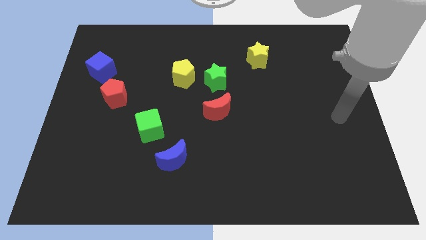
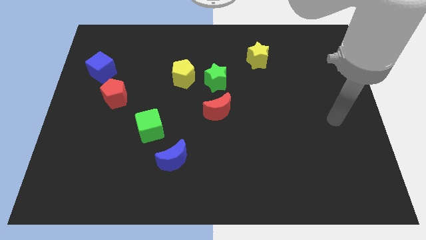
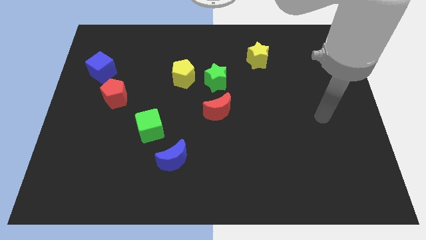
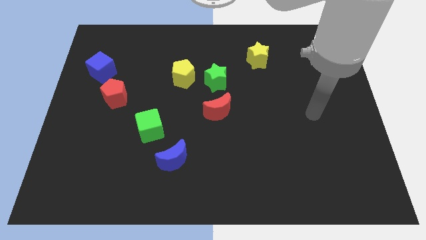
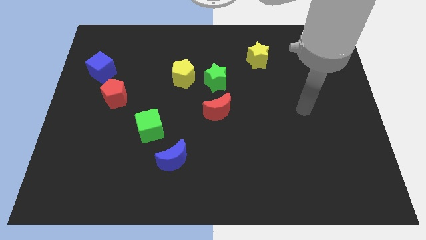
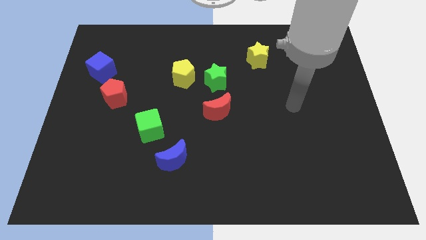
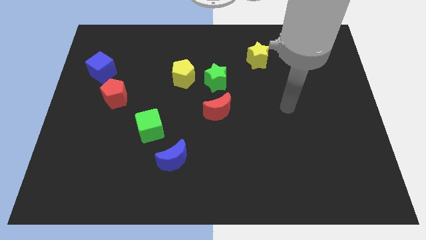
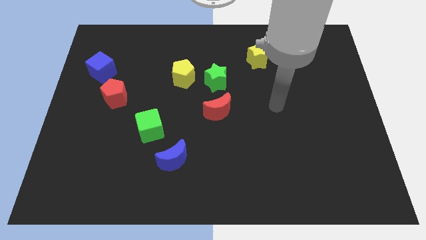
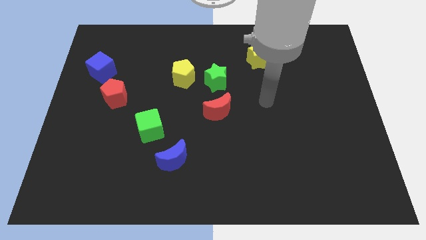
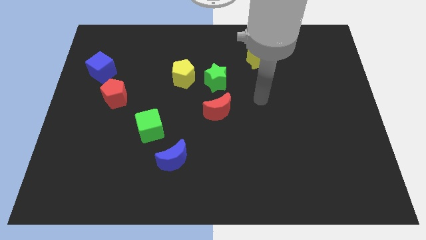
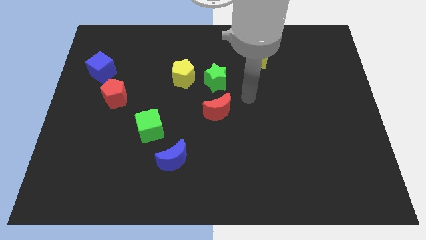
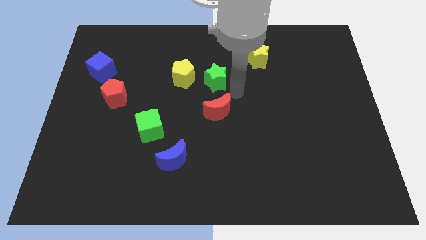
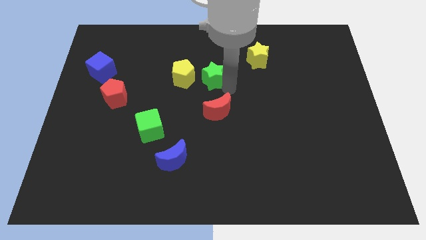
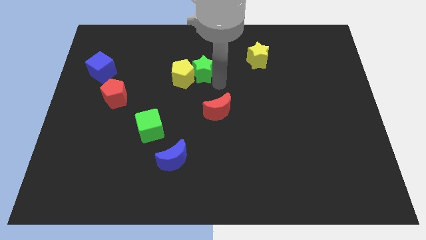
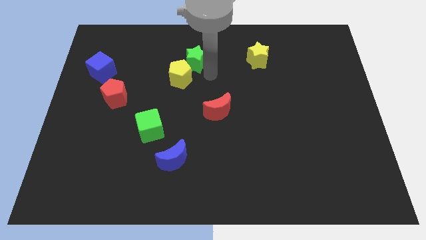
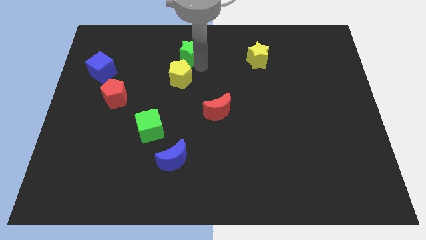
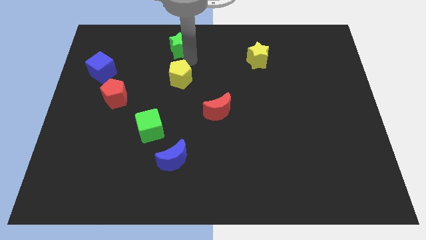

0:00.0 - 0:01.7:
pull the yellow pentagon apart from the green star

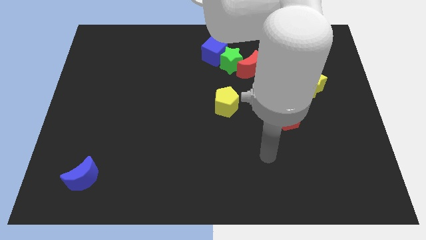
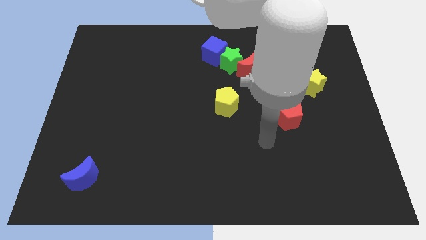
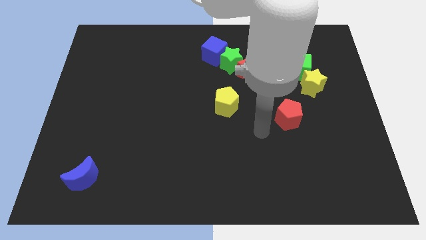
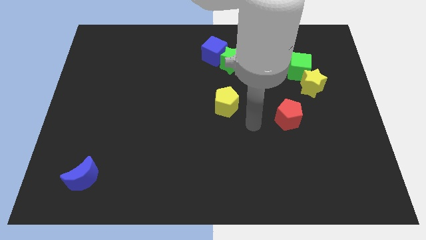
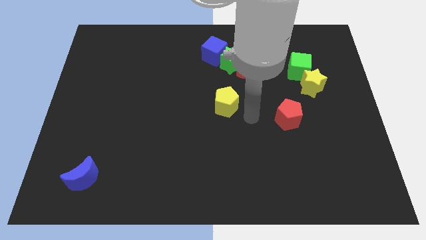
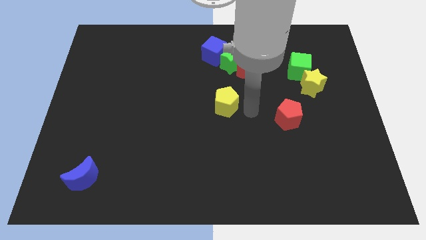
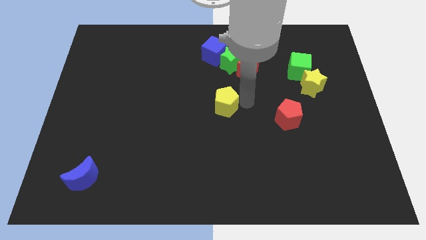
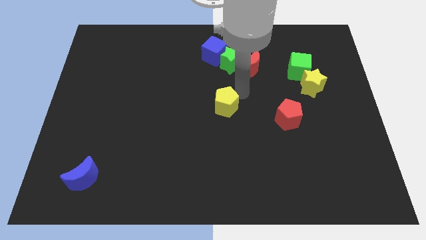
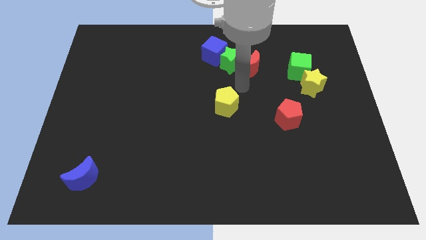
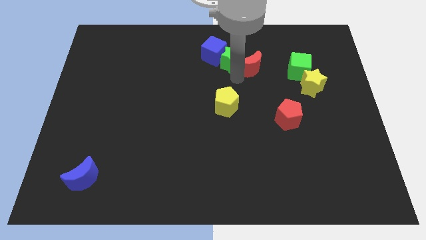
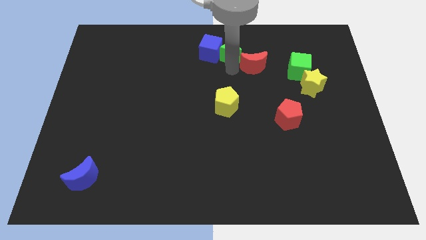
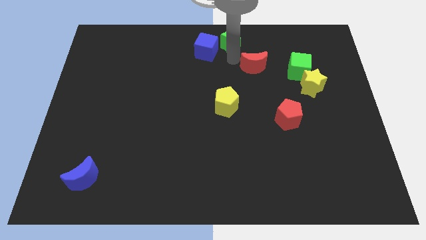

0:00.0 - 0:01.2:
separate the red moon from the green star

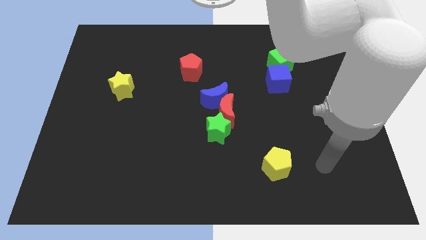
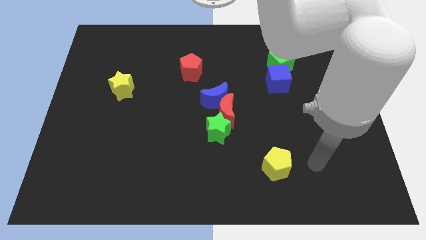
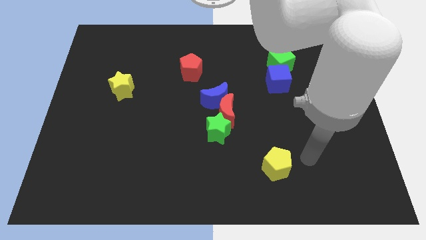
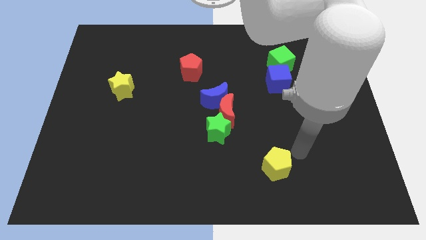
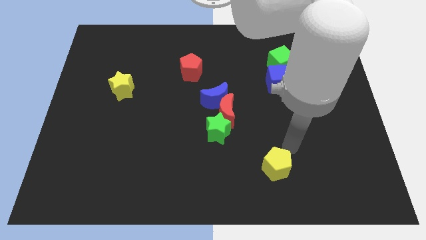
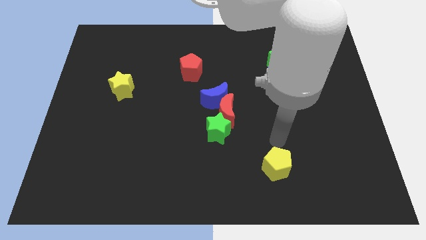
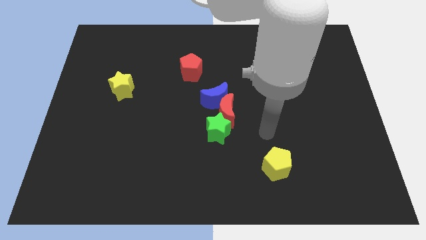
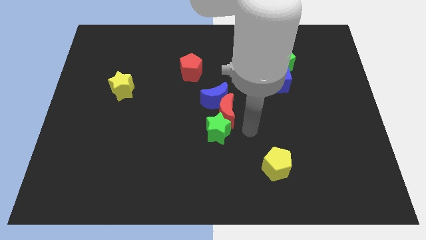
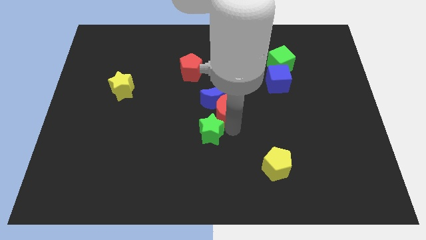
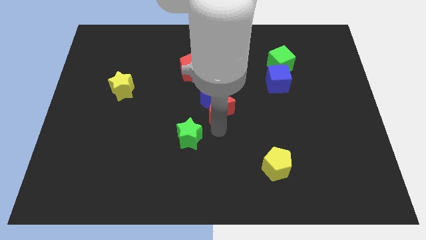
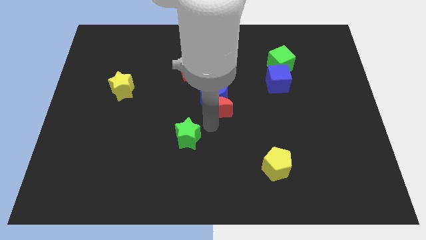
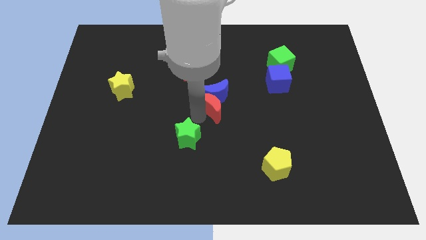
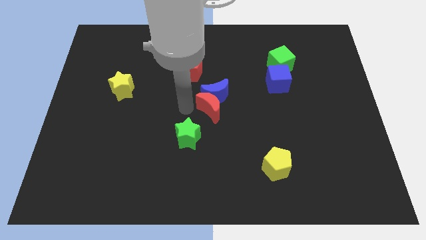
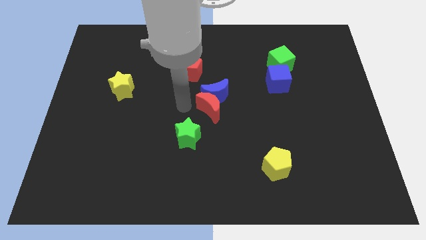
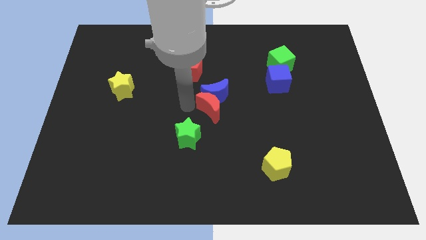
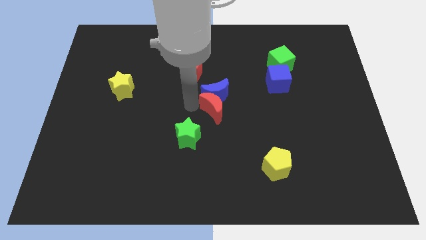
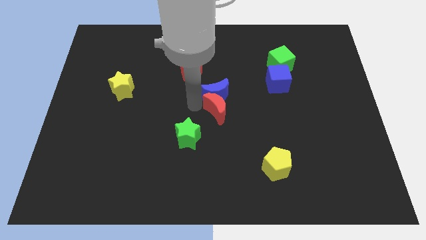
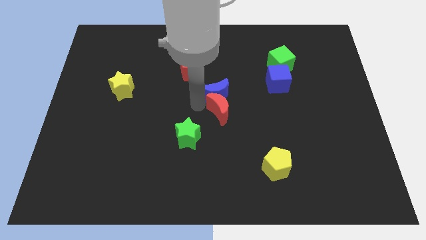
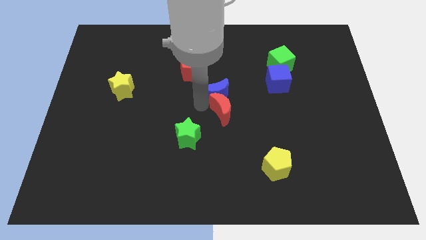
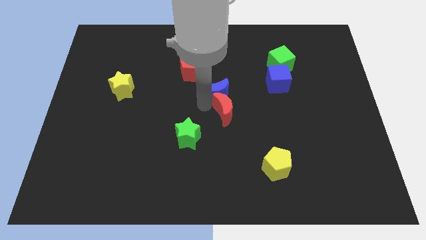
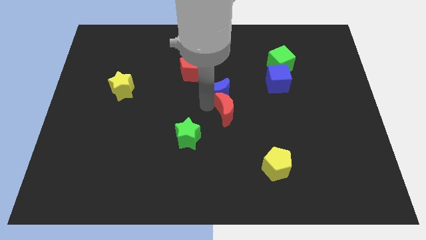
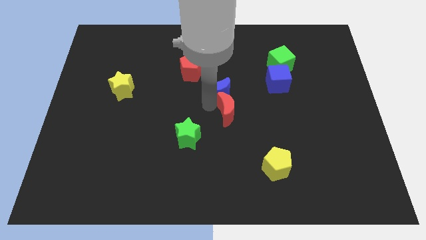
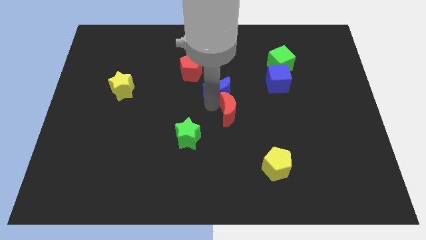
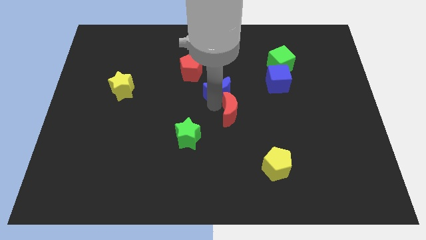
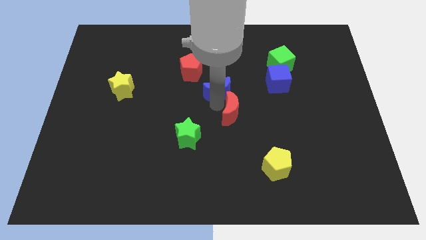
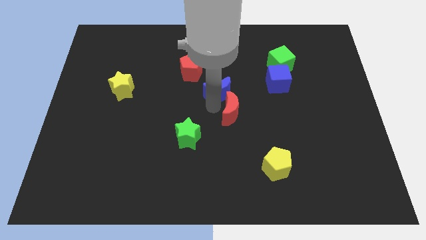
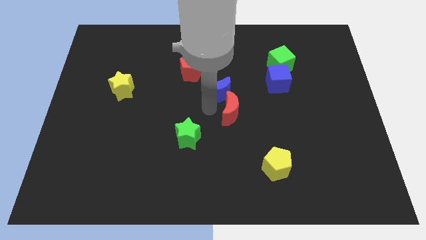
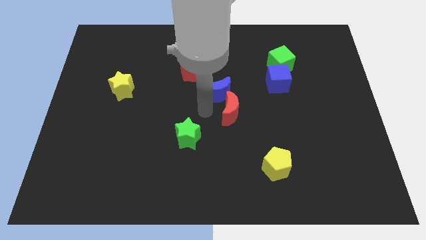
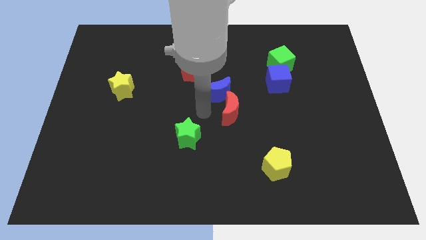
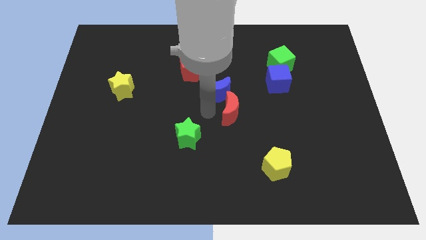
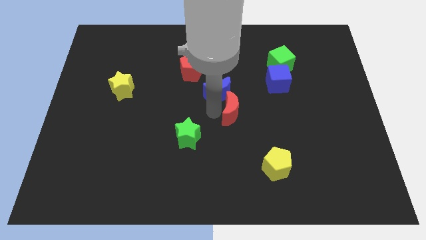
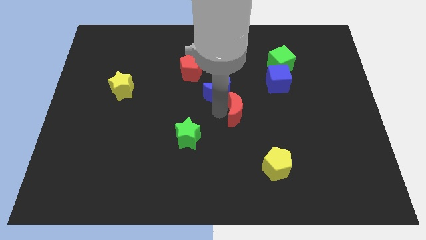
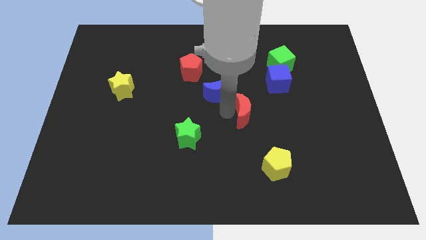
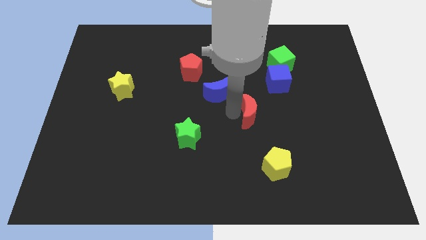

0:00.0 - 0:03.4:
move the red moon away from the blue moon and green star

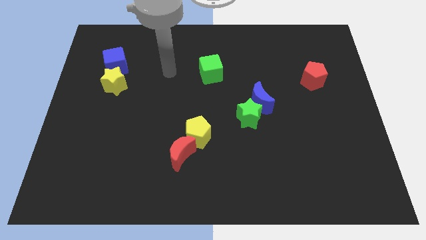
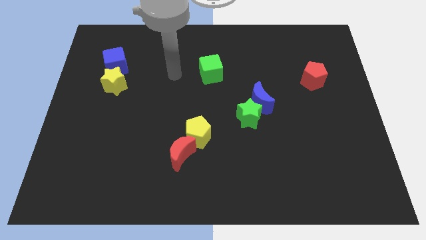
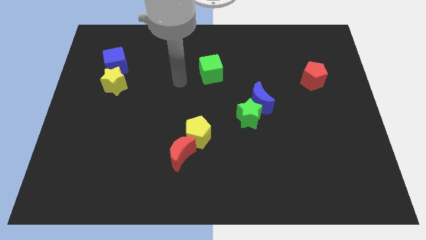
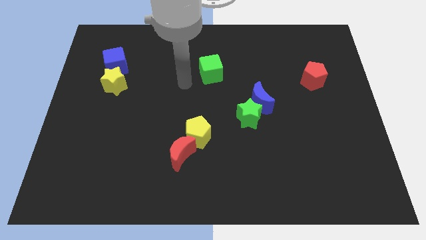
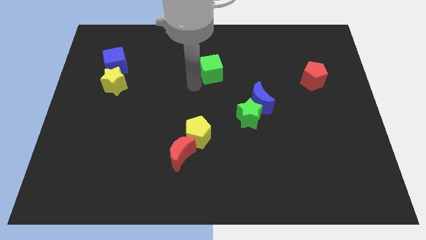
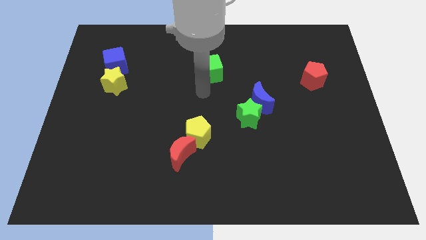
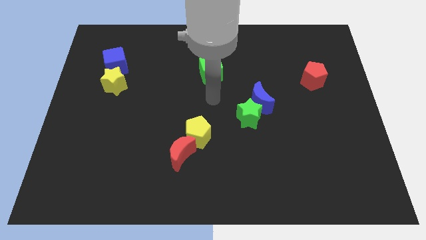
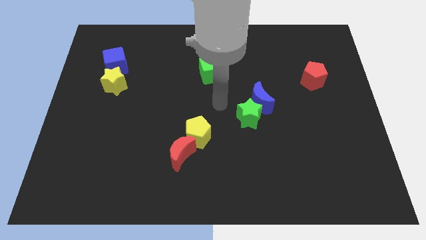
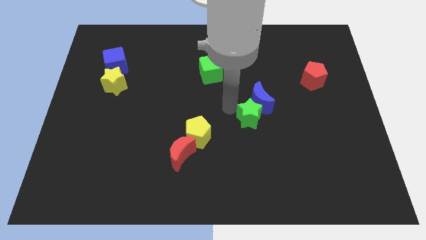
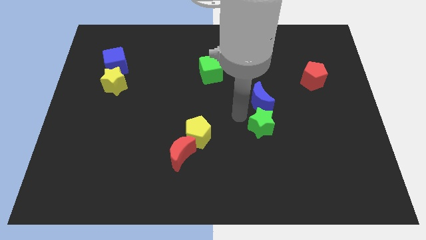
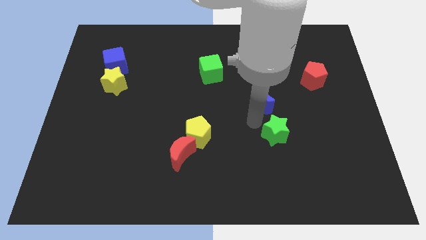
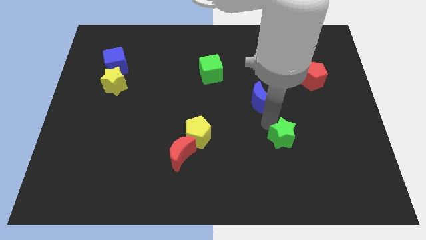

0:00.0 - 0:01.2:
move the blue moon away from the green star

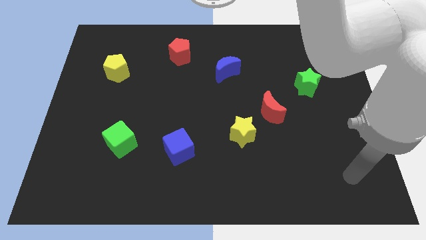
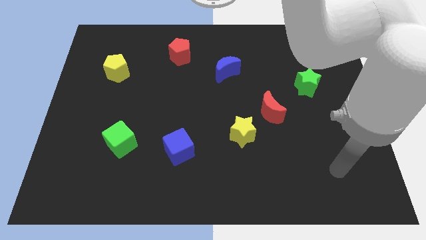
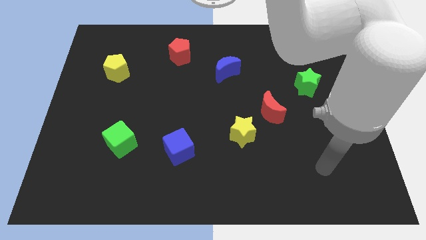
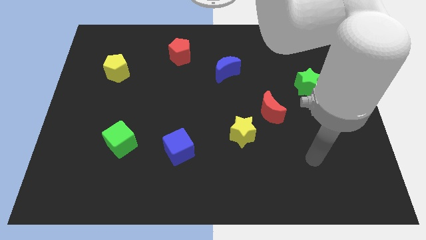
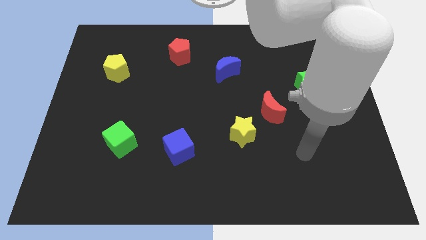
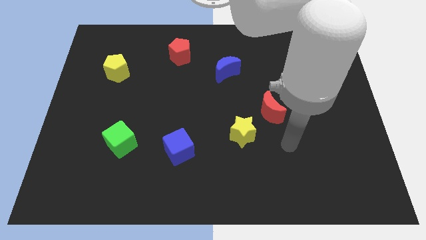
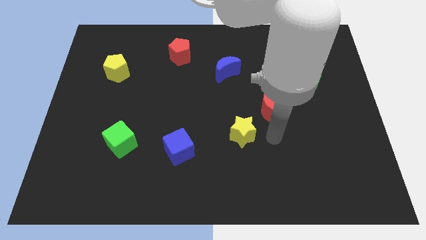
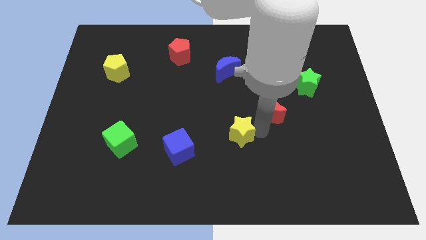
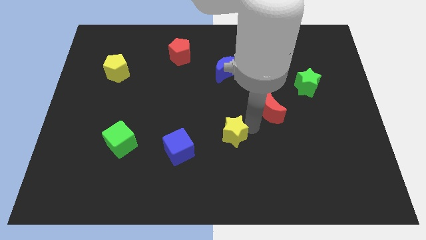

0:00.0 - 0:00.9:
move the red moon away from the yellow star

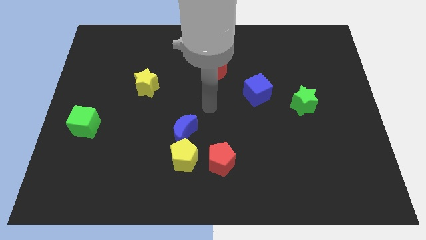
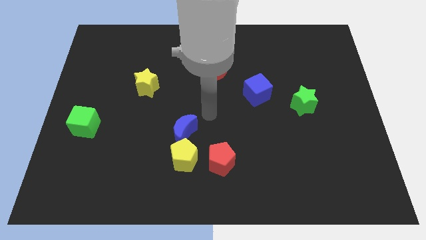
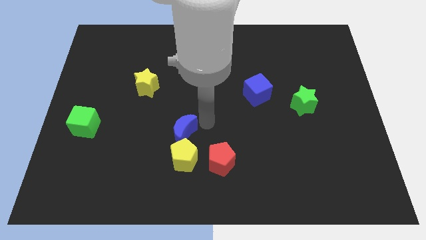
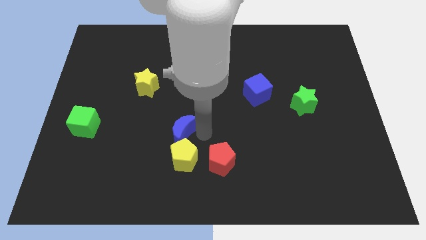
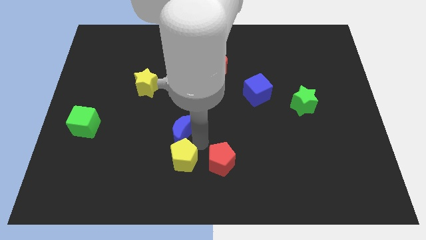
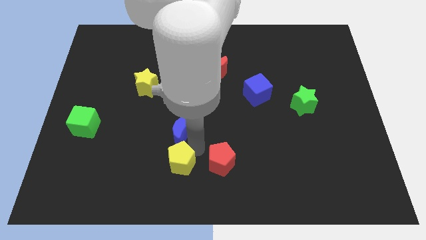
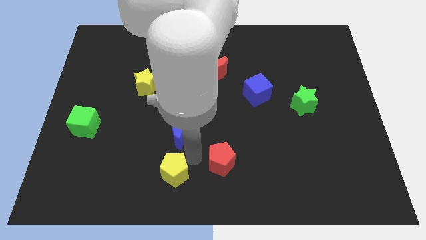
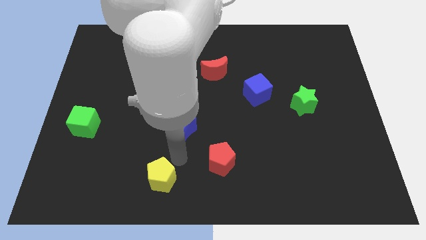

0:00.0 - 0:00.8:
move the blue moon away from the yellow pentagon

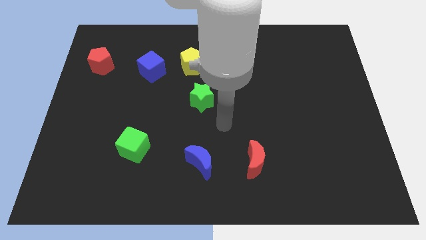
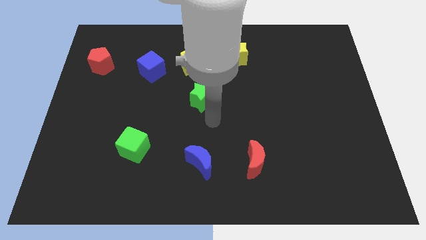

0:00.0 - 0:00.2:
separate the blue cube from the yellow pentagon
